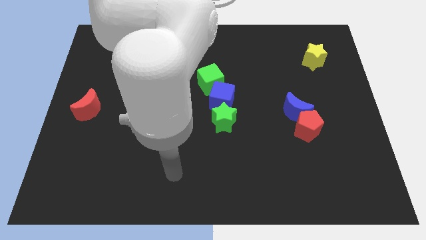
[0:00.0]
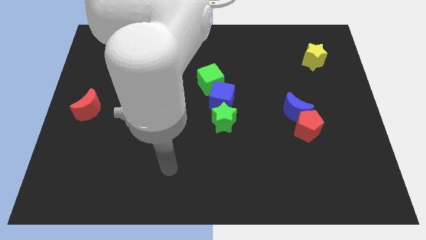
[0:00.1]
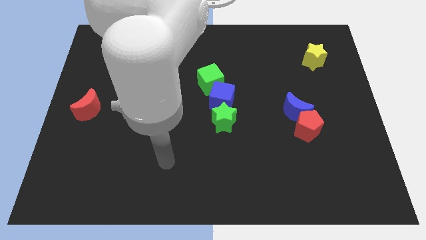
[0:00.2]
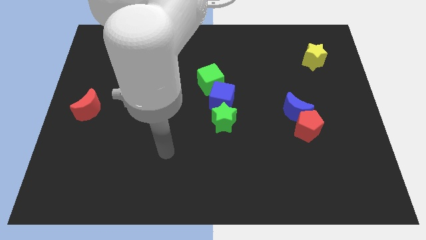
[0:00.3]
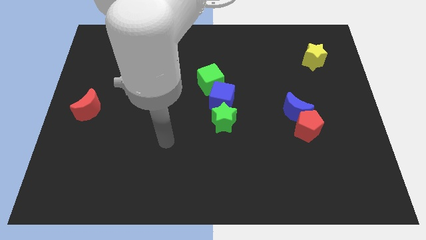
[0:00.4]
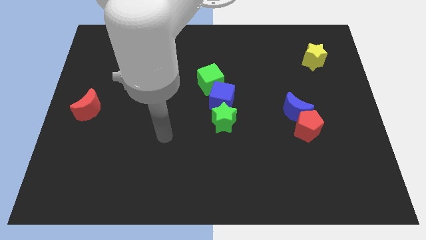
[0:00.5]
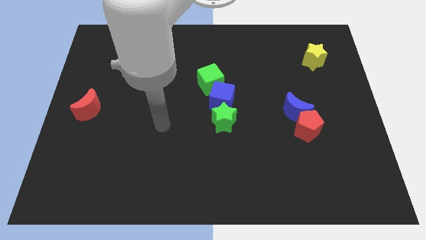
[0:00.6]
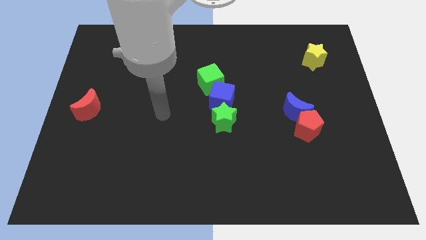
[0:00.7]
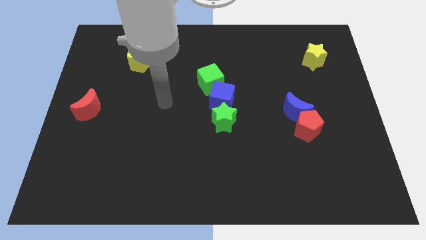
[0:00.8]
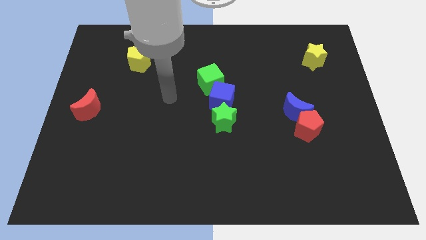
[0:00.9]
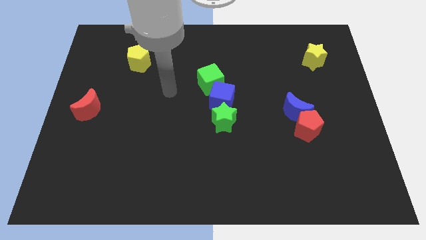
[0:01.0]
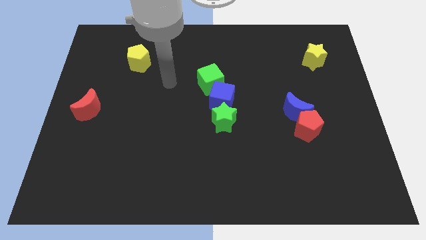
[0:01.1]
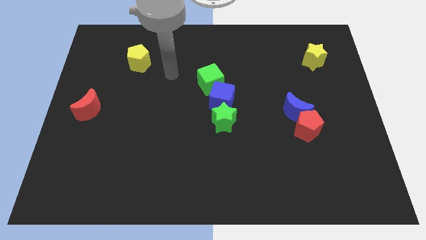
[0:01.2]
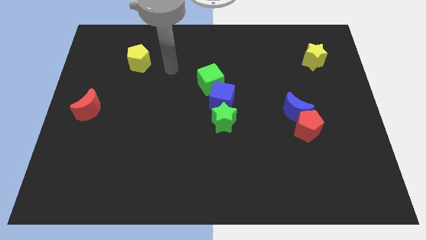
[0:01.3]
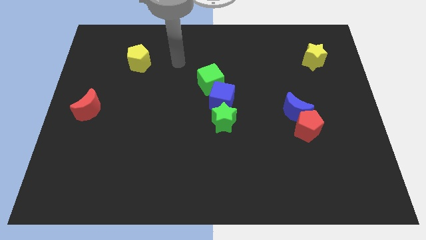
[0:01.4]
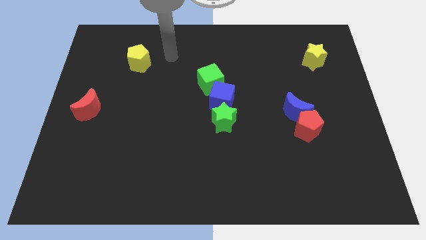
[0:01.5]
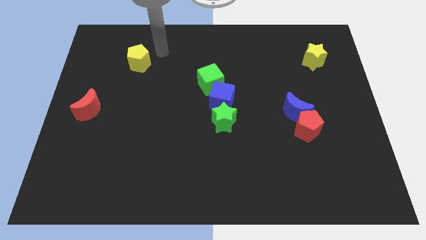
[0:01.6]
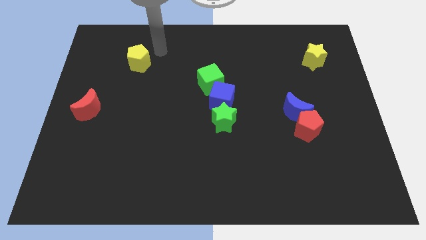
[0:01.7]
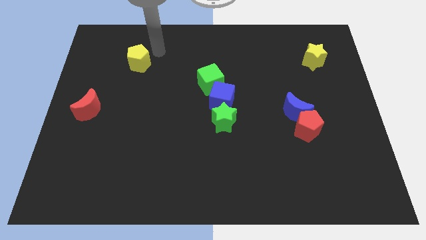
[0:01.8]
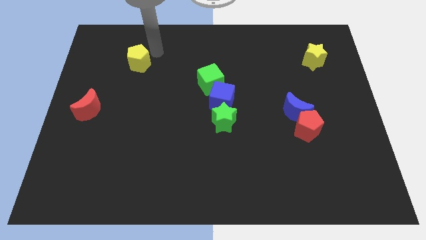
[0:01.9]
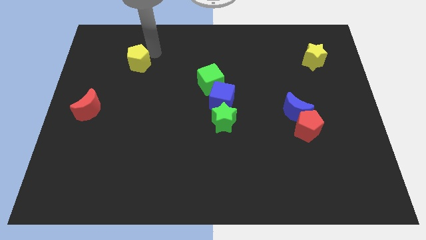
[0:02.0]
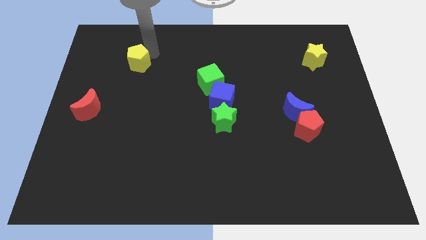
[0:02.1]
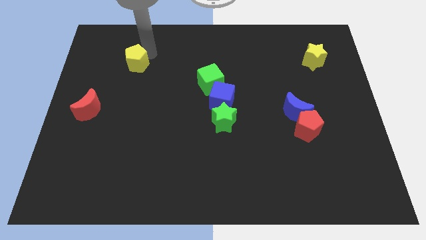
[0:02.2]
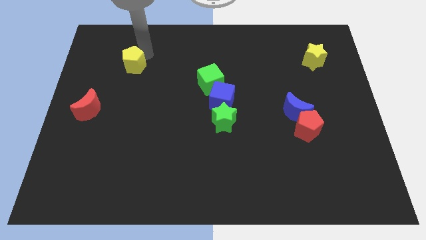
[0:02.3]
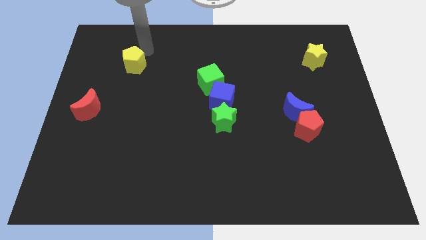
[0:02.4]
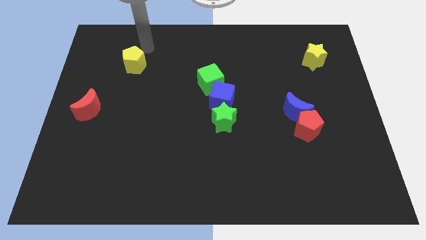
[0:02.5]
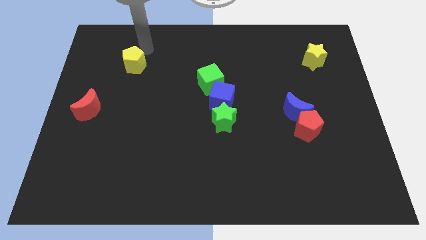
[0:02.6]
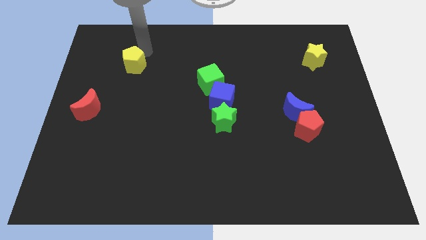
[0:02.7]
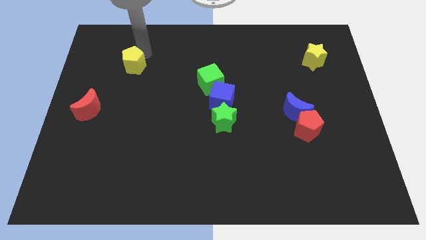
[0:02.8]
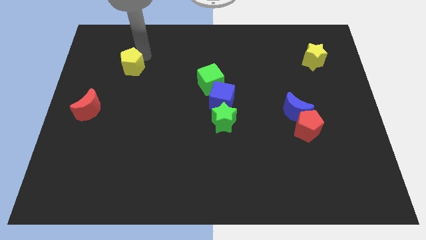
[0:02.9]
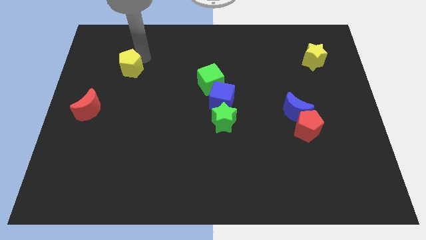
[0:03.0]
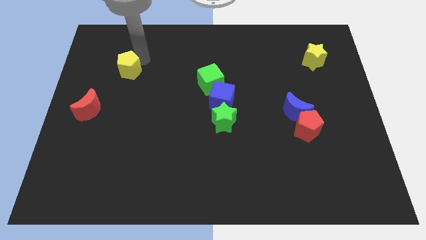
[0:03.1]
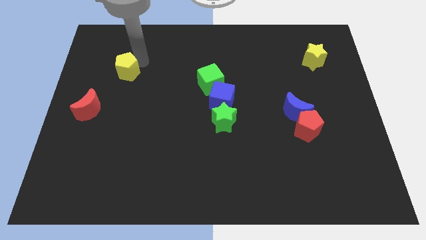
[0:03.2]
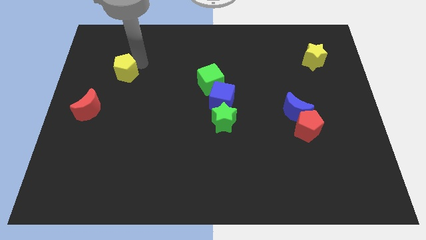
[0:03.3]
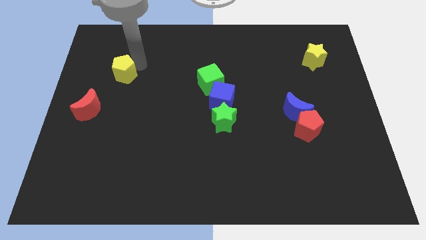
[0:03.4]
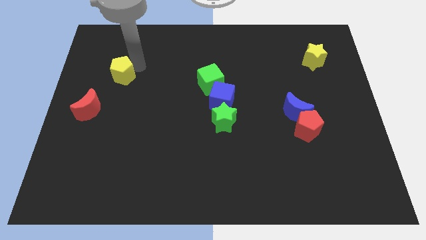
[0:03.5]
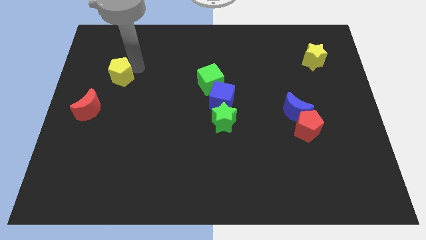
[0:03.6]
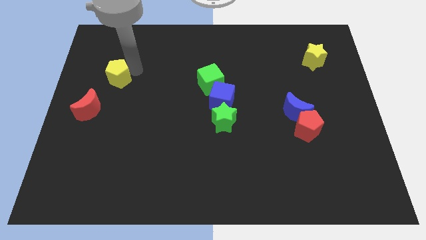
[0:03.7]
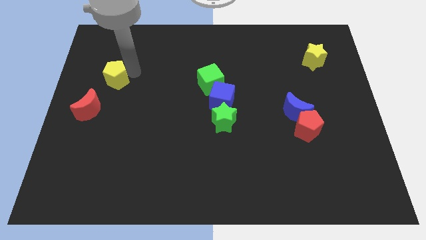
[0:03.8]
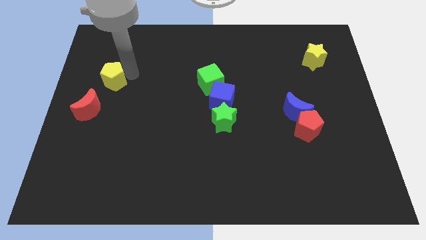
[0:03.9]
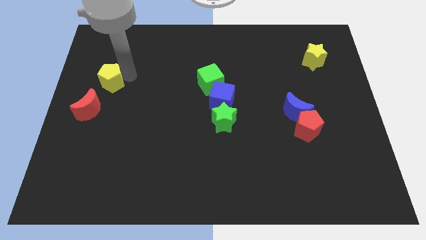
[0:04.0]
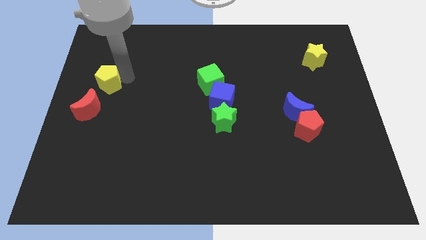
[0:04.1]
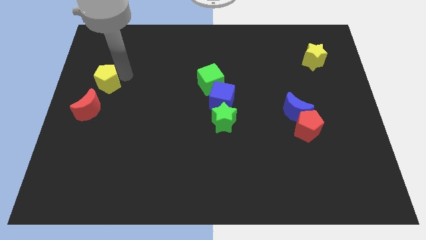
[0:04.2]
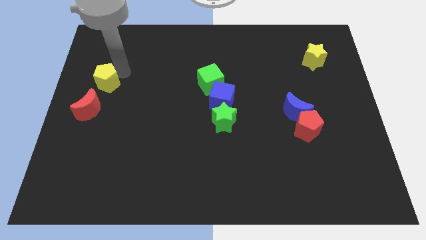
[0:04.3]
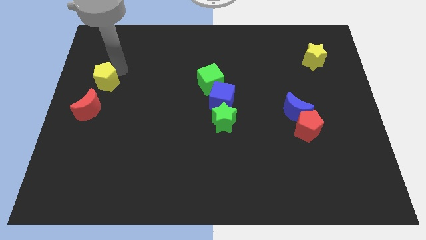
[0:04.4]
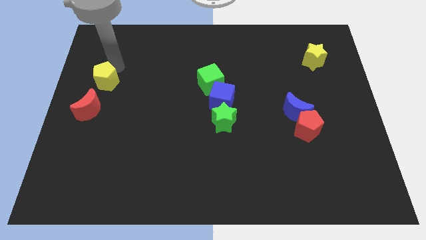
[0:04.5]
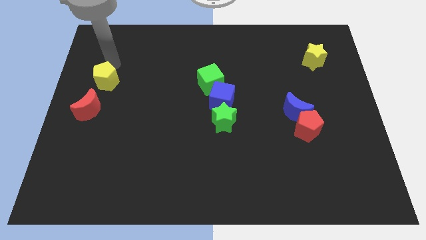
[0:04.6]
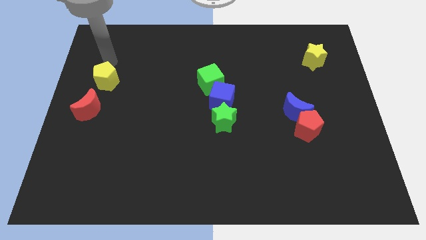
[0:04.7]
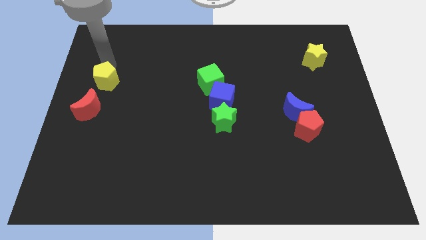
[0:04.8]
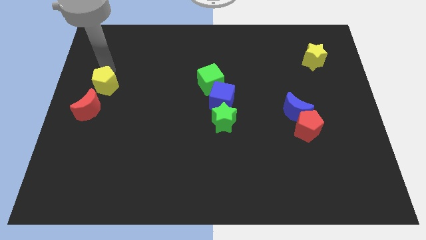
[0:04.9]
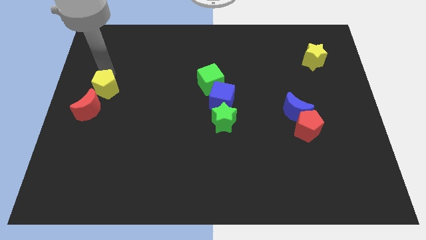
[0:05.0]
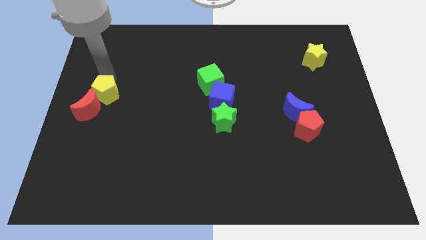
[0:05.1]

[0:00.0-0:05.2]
slide the yellow pentagon close to the red moon

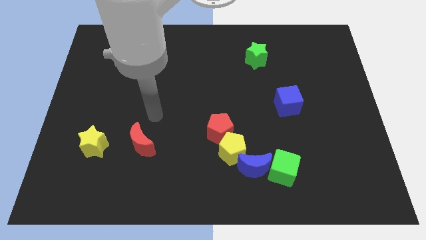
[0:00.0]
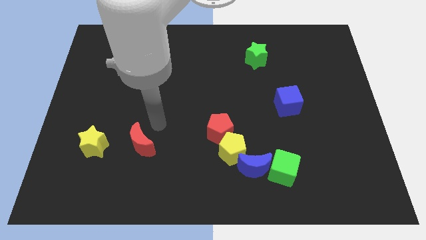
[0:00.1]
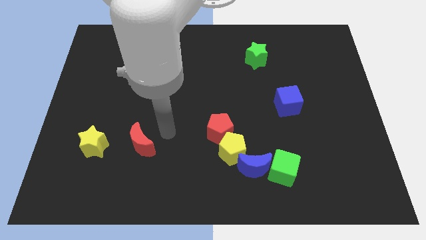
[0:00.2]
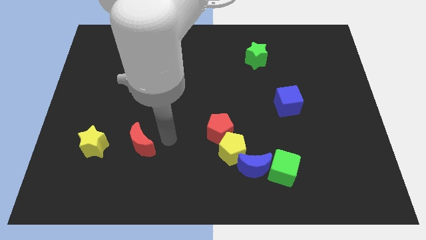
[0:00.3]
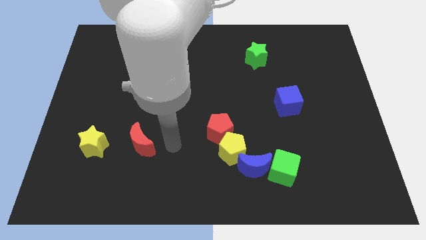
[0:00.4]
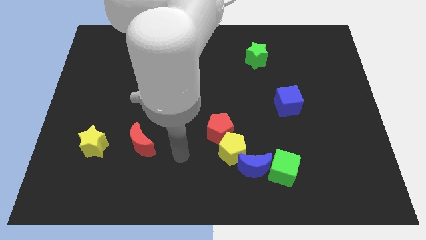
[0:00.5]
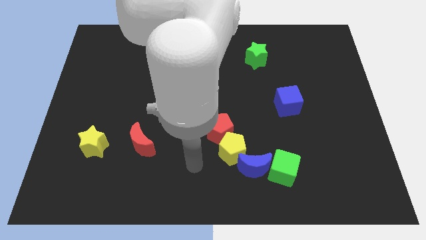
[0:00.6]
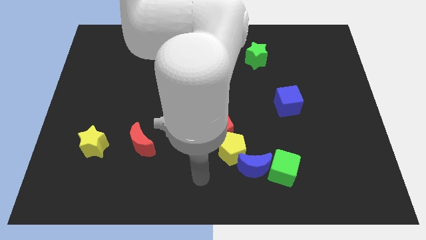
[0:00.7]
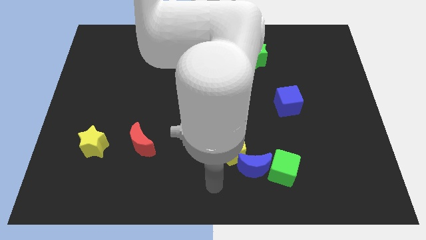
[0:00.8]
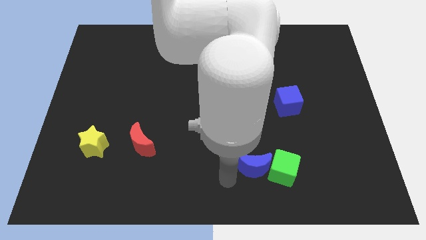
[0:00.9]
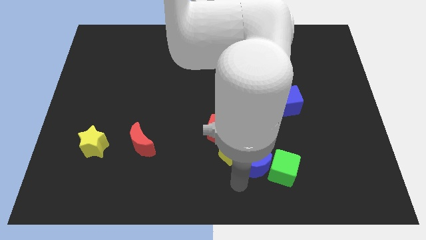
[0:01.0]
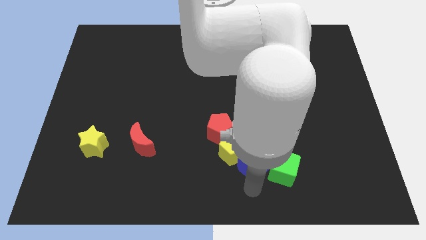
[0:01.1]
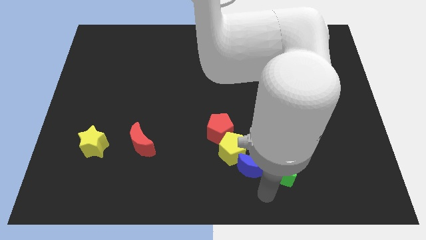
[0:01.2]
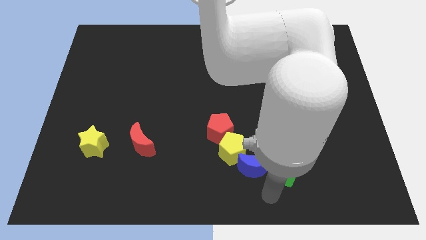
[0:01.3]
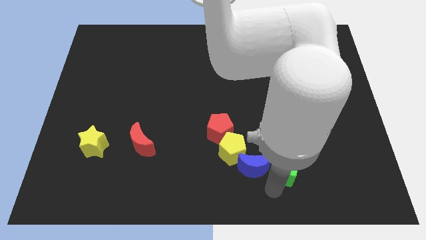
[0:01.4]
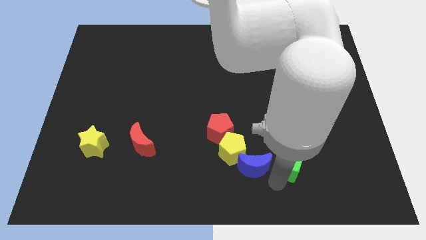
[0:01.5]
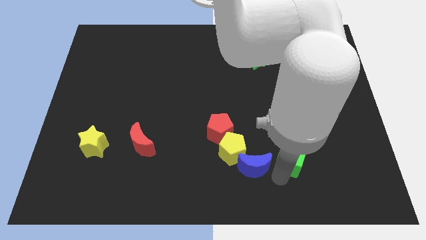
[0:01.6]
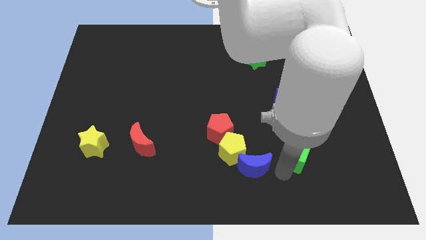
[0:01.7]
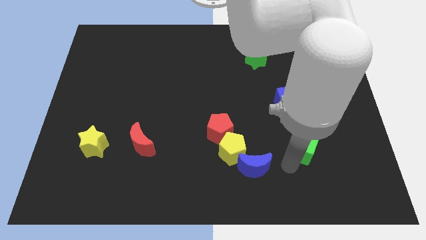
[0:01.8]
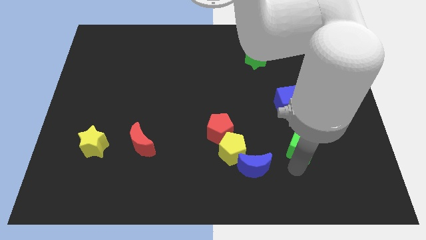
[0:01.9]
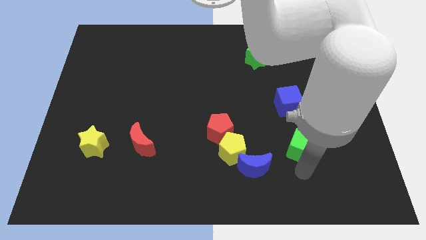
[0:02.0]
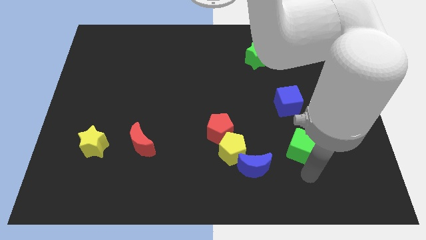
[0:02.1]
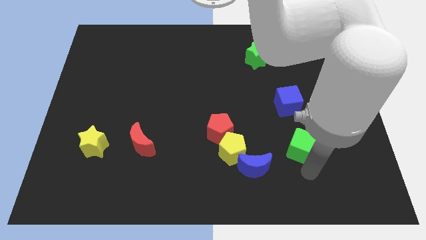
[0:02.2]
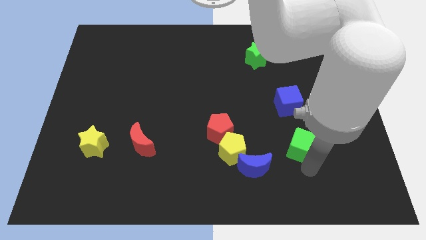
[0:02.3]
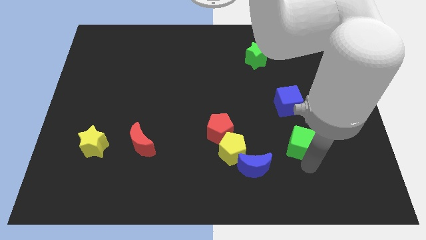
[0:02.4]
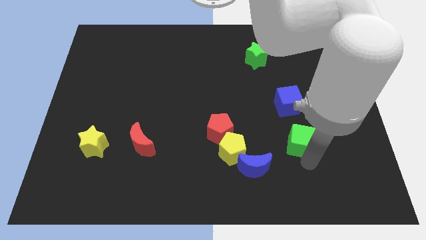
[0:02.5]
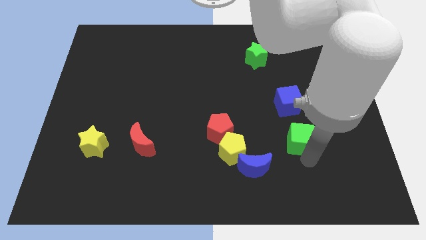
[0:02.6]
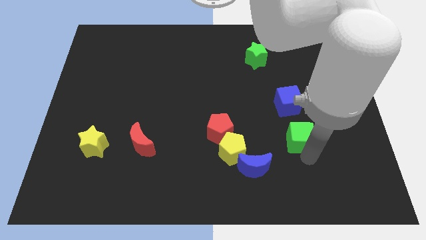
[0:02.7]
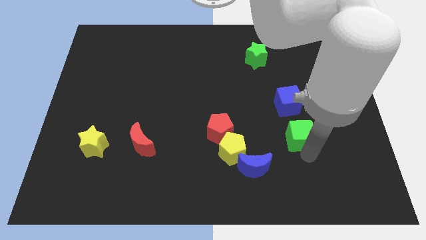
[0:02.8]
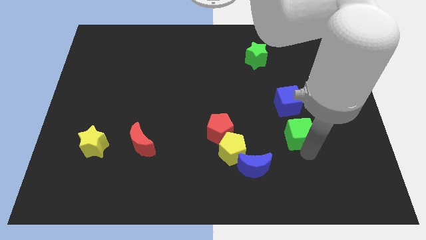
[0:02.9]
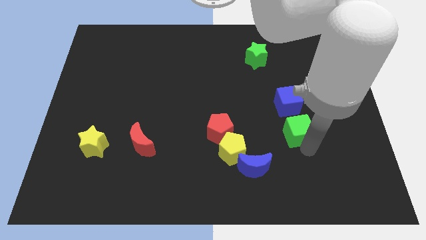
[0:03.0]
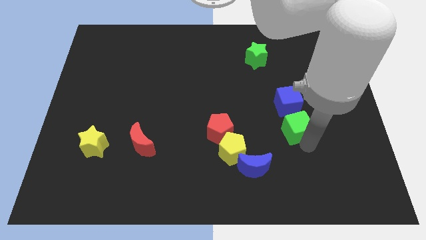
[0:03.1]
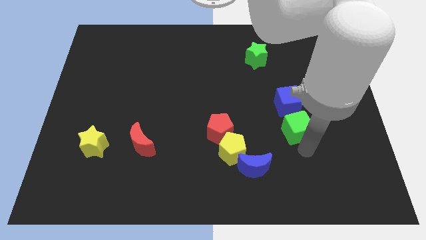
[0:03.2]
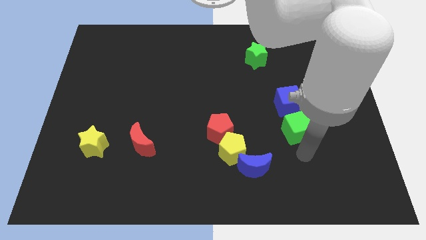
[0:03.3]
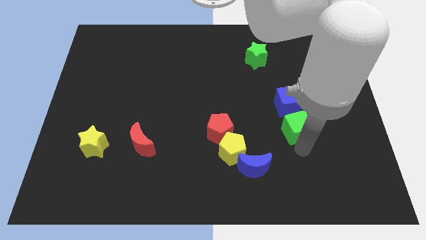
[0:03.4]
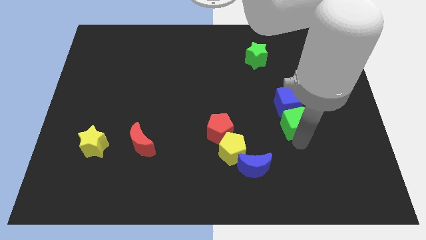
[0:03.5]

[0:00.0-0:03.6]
push the green cube towards the blue cube
